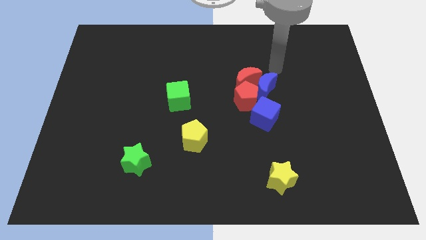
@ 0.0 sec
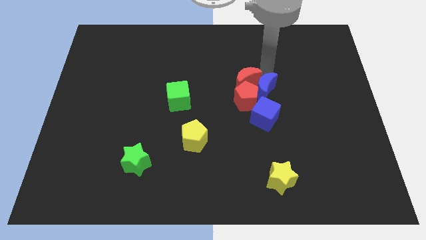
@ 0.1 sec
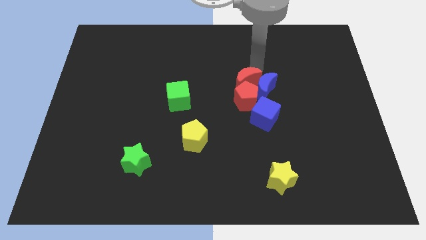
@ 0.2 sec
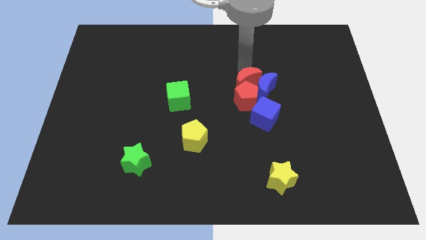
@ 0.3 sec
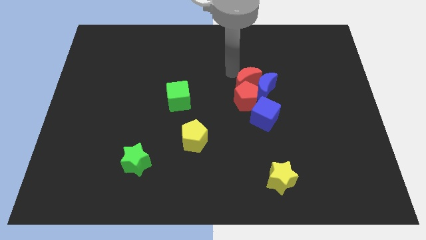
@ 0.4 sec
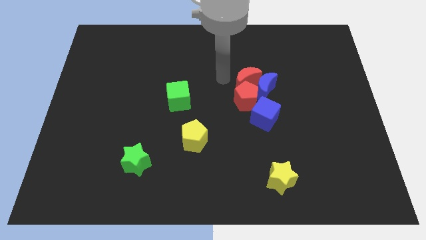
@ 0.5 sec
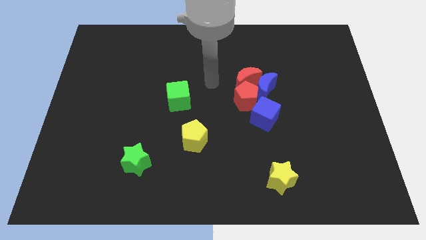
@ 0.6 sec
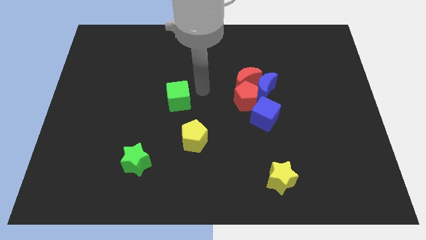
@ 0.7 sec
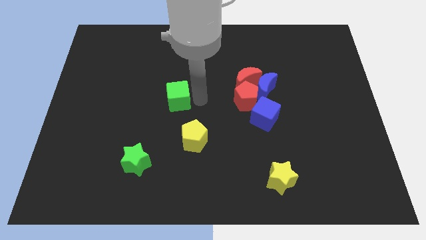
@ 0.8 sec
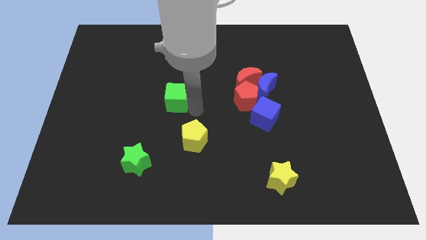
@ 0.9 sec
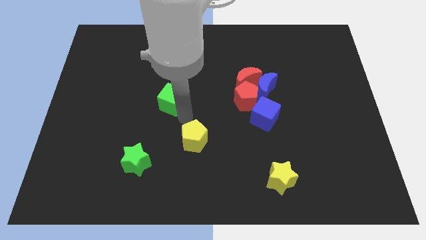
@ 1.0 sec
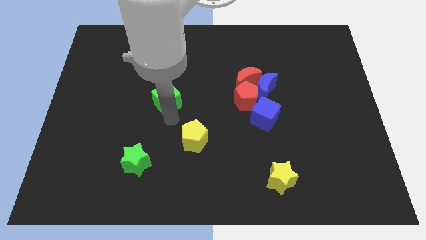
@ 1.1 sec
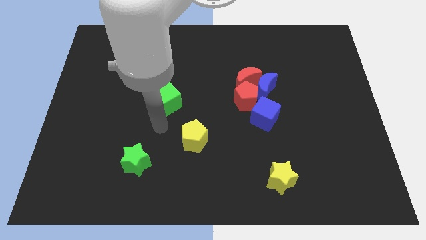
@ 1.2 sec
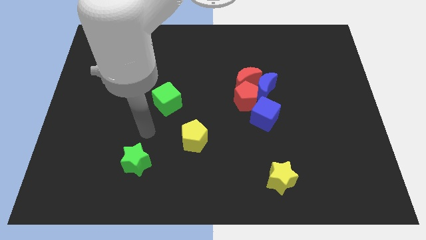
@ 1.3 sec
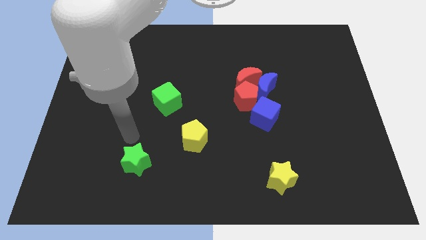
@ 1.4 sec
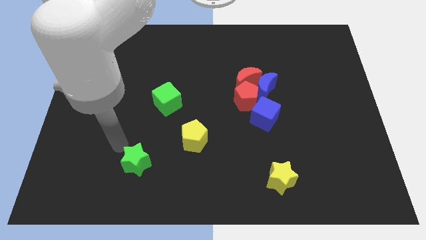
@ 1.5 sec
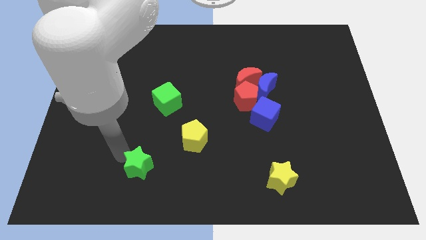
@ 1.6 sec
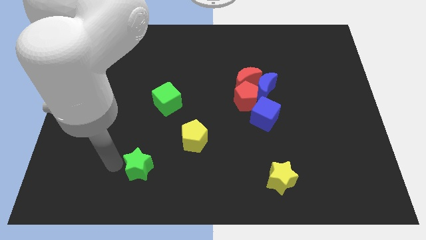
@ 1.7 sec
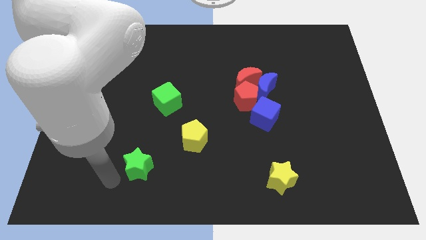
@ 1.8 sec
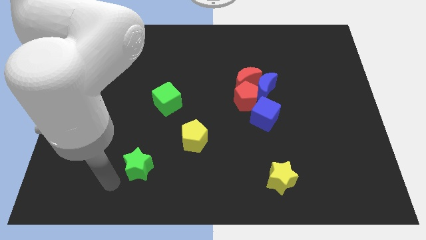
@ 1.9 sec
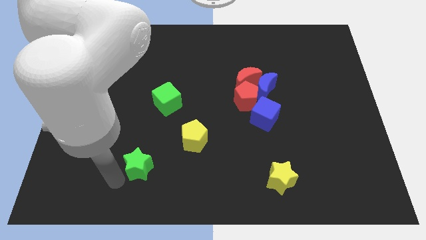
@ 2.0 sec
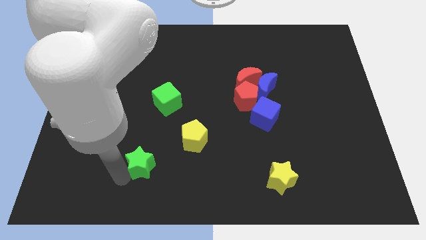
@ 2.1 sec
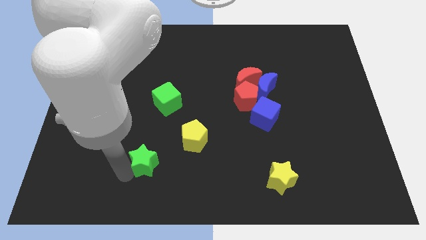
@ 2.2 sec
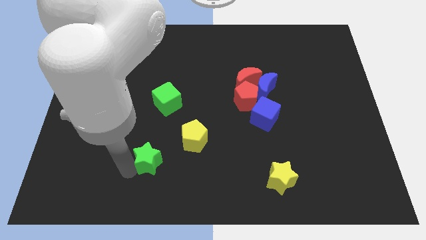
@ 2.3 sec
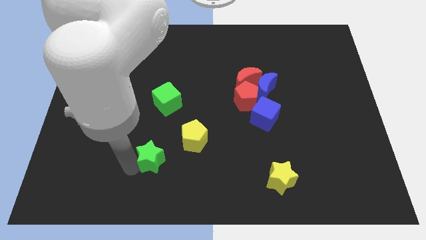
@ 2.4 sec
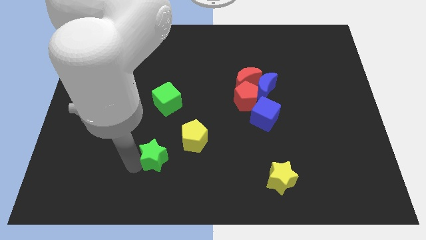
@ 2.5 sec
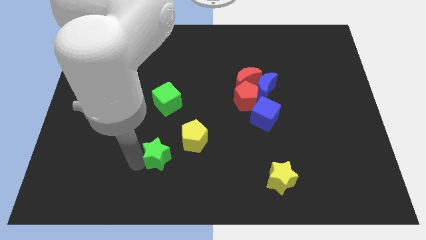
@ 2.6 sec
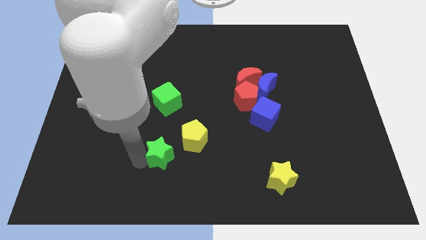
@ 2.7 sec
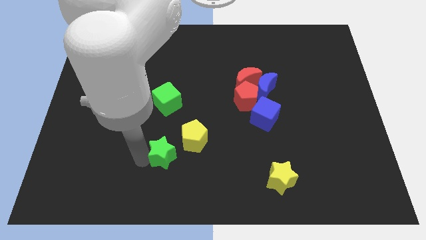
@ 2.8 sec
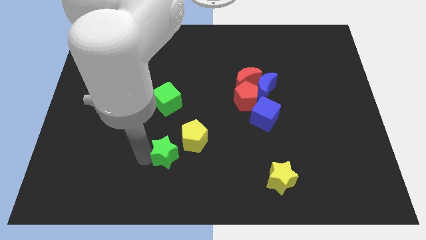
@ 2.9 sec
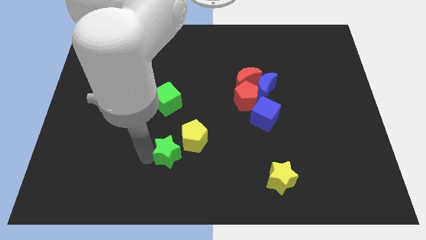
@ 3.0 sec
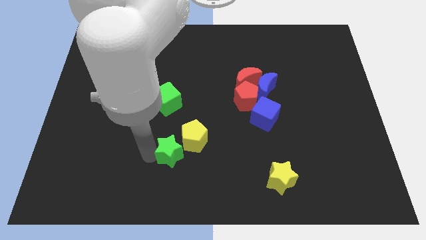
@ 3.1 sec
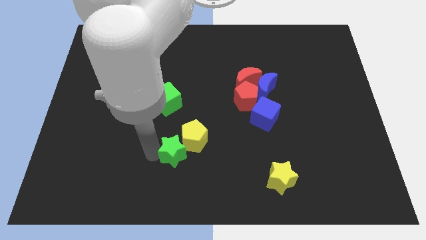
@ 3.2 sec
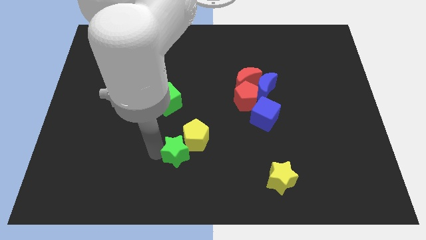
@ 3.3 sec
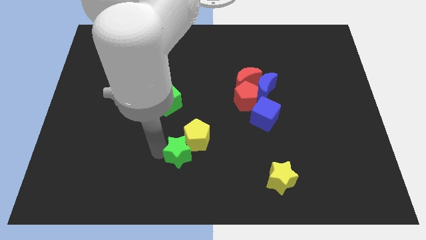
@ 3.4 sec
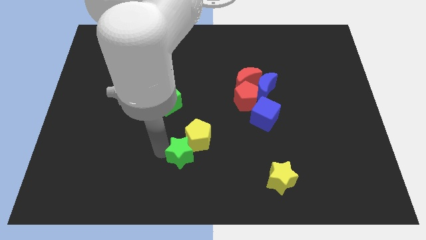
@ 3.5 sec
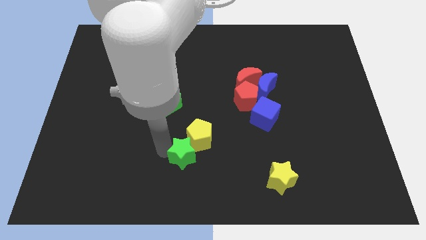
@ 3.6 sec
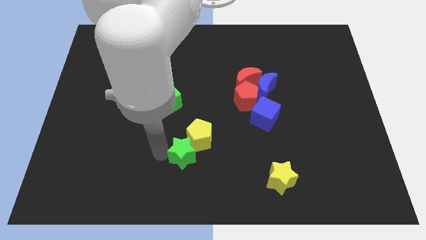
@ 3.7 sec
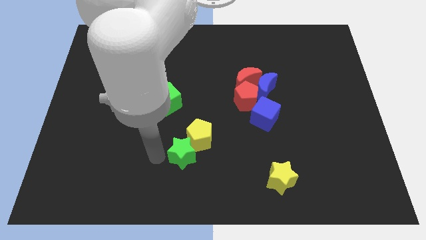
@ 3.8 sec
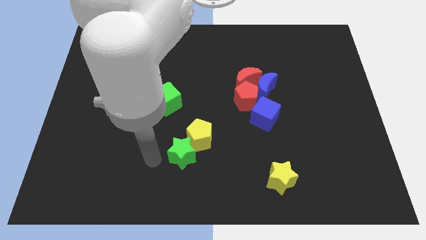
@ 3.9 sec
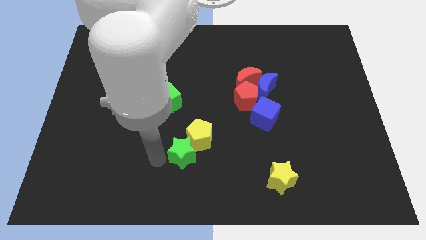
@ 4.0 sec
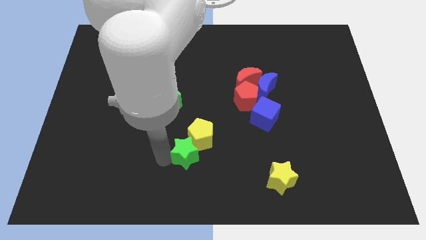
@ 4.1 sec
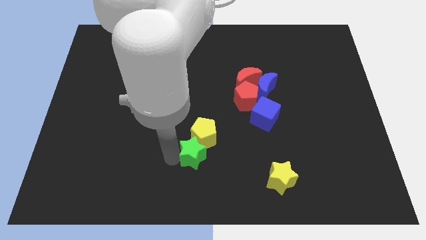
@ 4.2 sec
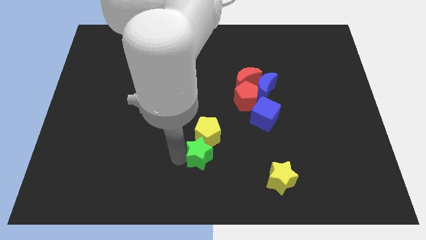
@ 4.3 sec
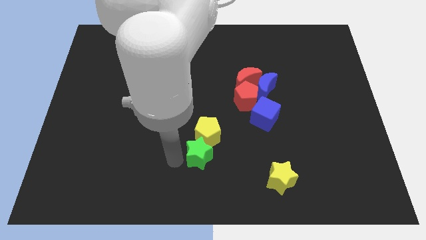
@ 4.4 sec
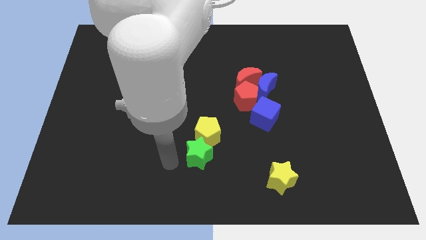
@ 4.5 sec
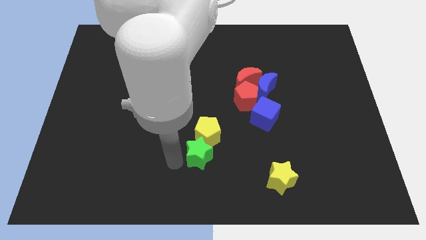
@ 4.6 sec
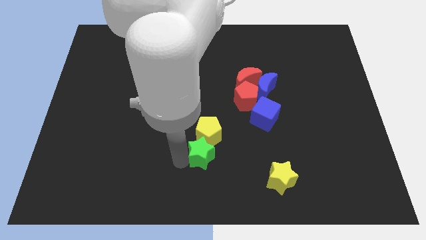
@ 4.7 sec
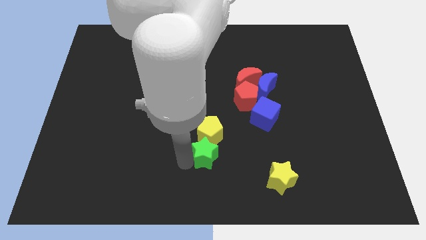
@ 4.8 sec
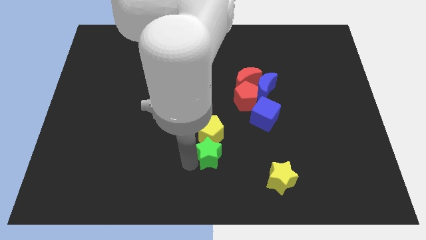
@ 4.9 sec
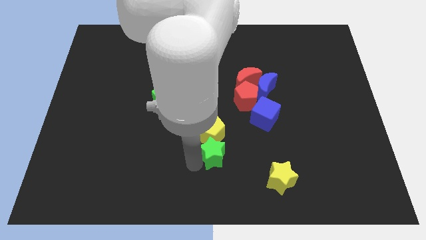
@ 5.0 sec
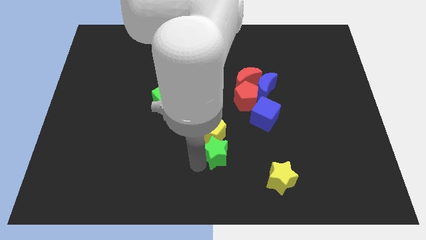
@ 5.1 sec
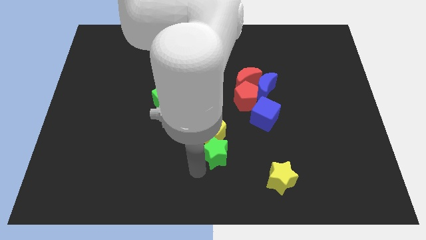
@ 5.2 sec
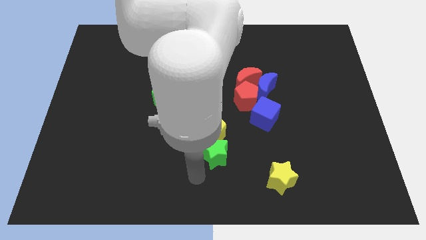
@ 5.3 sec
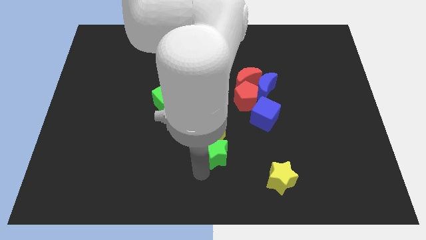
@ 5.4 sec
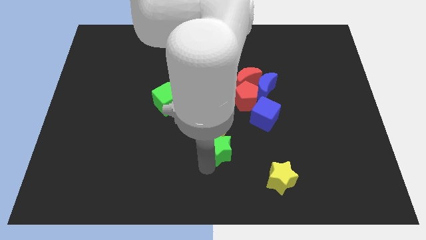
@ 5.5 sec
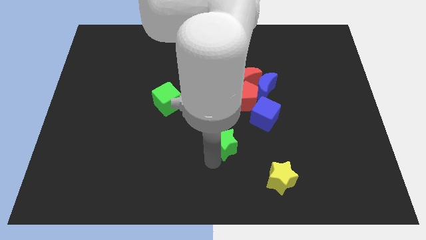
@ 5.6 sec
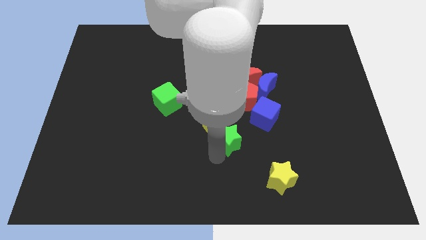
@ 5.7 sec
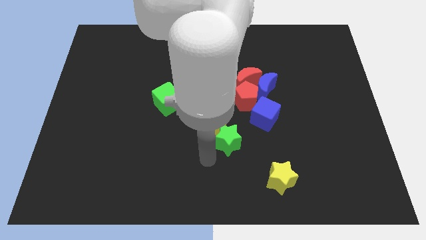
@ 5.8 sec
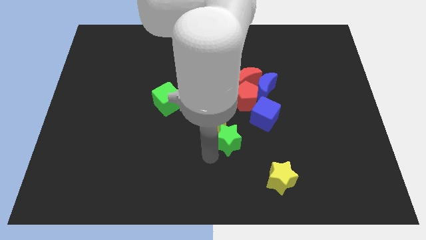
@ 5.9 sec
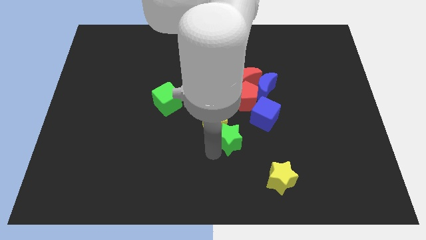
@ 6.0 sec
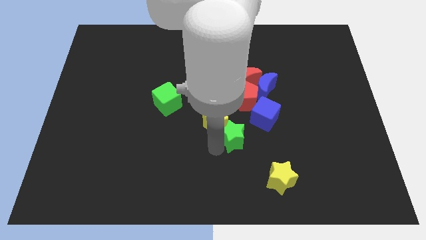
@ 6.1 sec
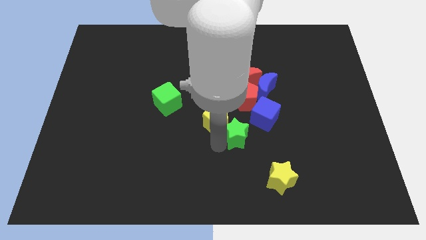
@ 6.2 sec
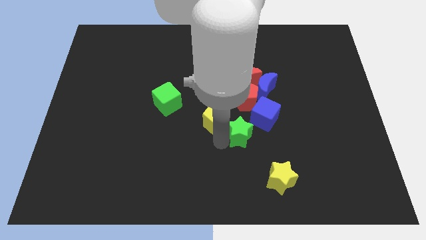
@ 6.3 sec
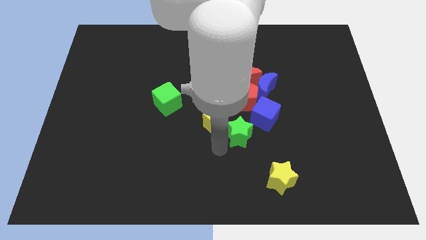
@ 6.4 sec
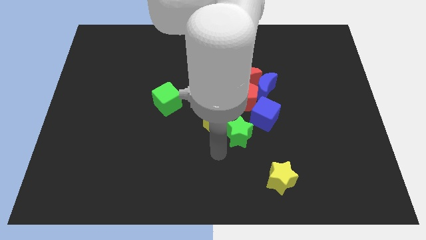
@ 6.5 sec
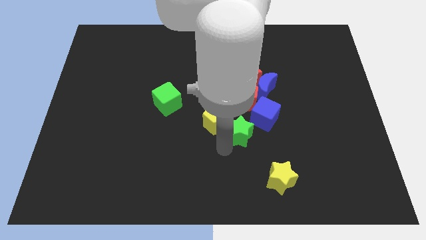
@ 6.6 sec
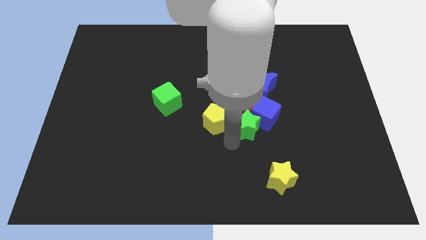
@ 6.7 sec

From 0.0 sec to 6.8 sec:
slide the green star to the blue cube
